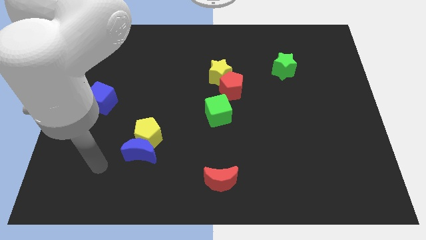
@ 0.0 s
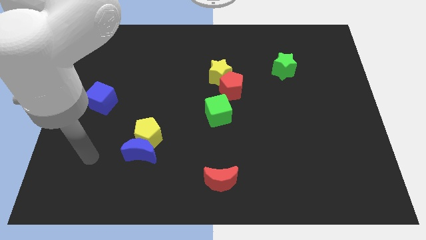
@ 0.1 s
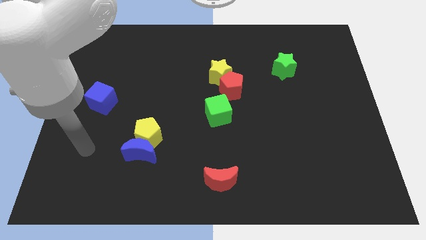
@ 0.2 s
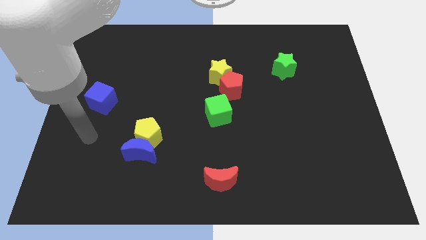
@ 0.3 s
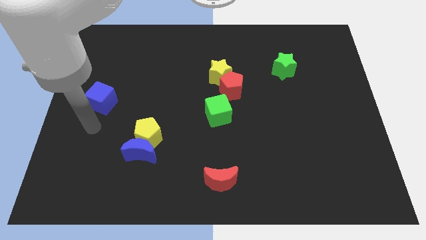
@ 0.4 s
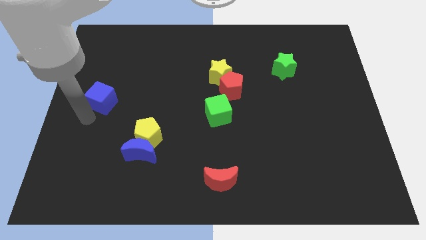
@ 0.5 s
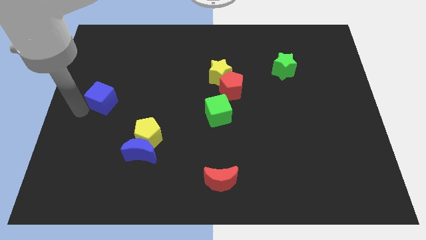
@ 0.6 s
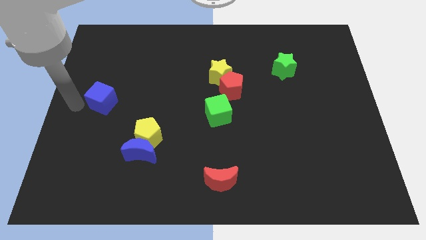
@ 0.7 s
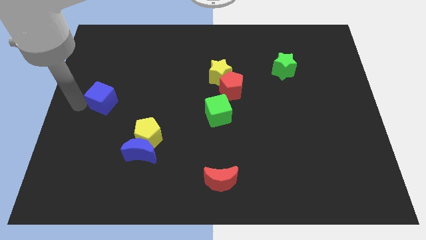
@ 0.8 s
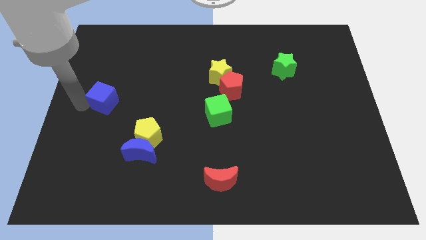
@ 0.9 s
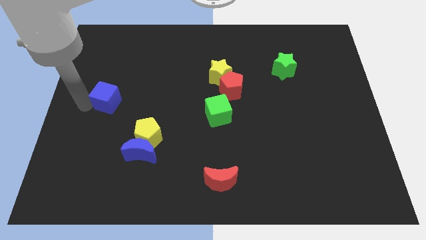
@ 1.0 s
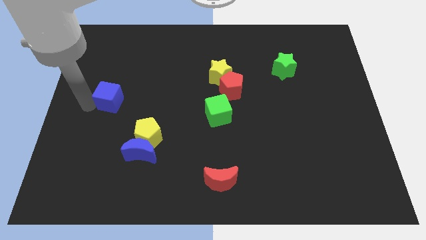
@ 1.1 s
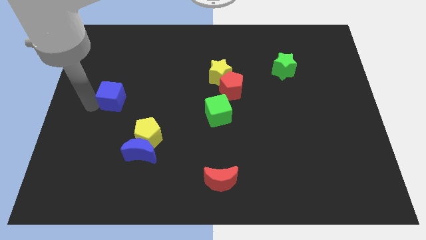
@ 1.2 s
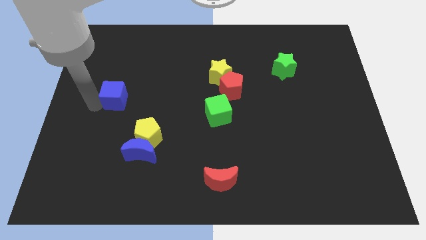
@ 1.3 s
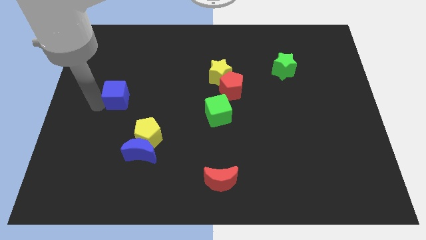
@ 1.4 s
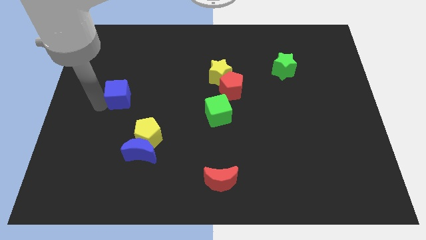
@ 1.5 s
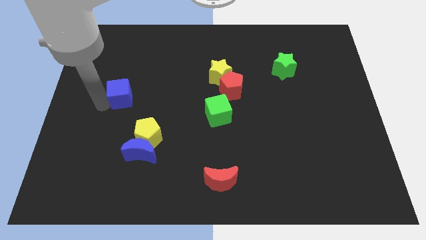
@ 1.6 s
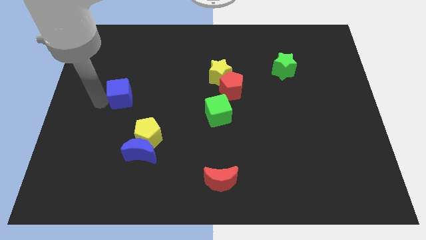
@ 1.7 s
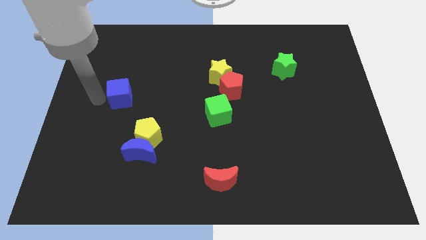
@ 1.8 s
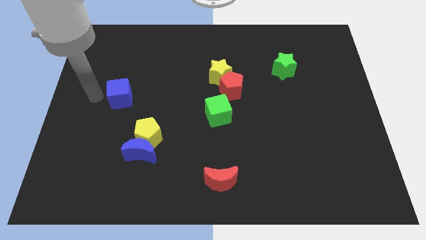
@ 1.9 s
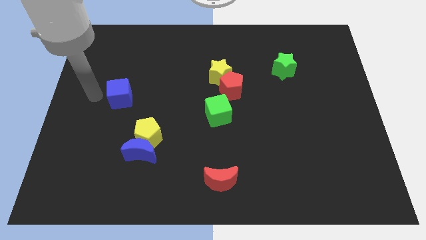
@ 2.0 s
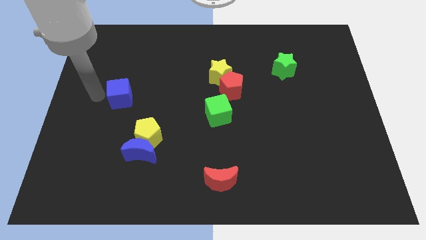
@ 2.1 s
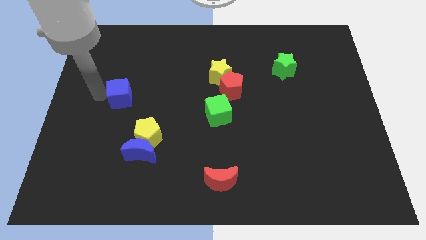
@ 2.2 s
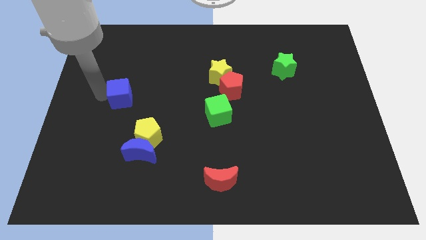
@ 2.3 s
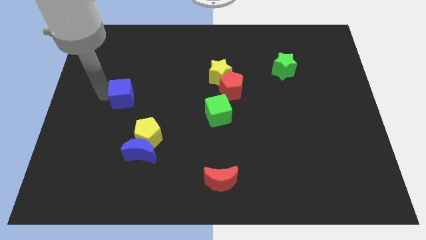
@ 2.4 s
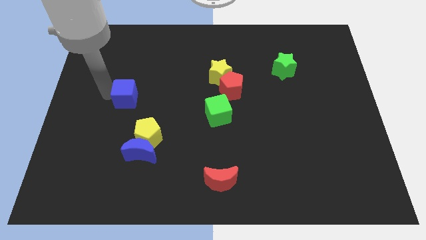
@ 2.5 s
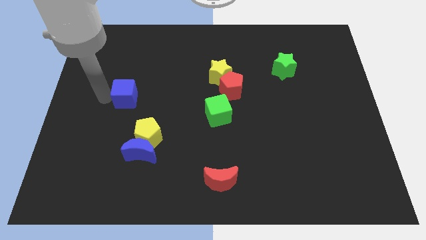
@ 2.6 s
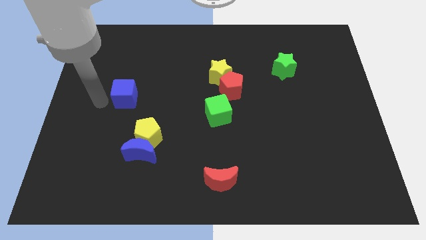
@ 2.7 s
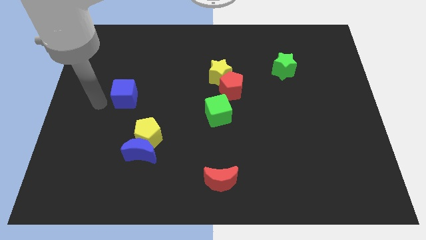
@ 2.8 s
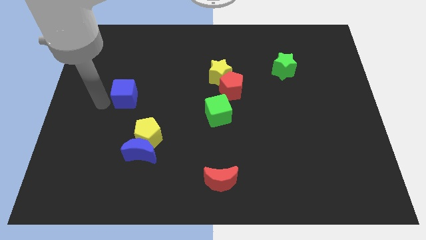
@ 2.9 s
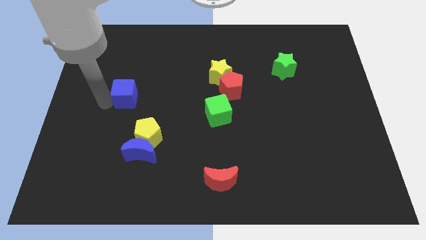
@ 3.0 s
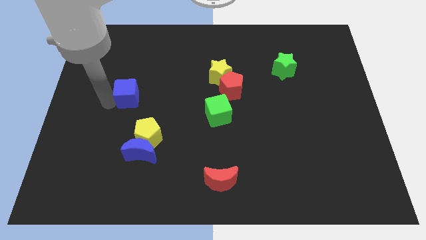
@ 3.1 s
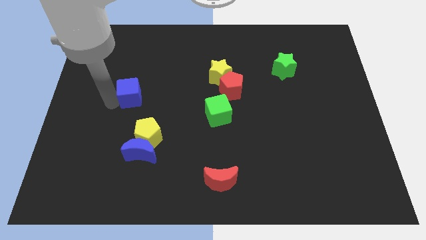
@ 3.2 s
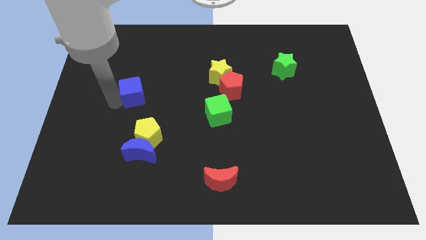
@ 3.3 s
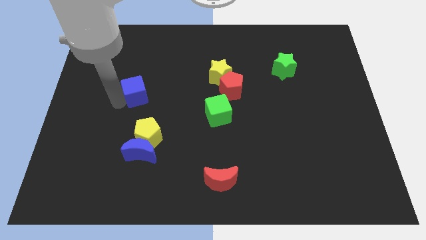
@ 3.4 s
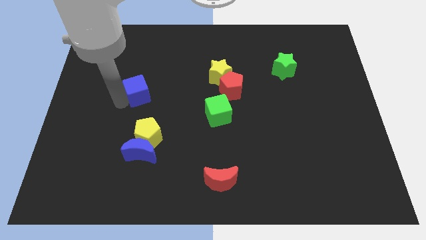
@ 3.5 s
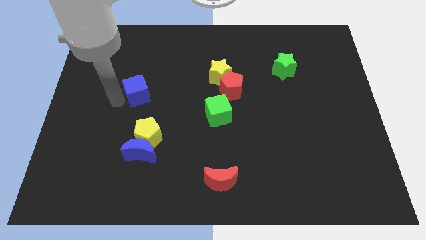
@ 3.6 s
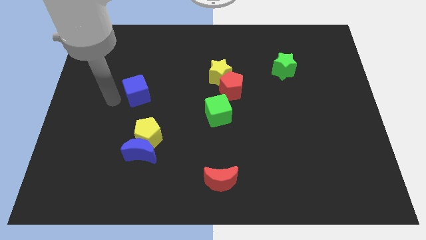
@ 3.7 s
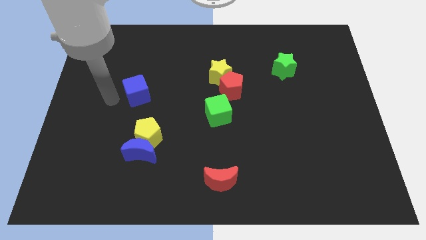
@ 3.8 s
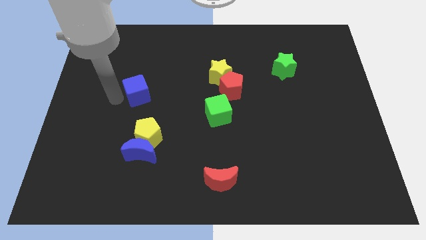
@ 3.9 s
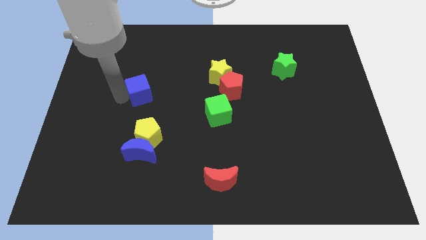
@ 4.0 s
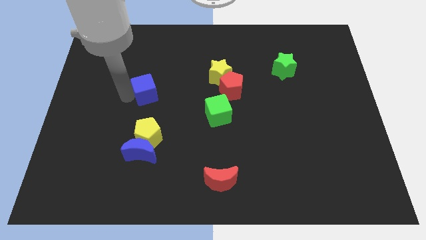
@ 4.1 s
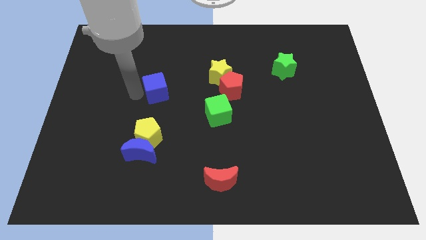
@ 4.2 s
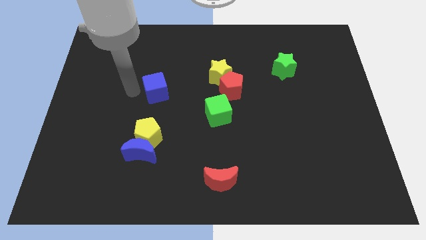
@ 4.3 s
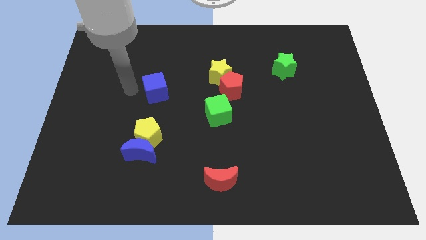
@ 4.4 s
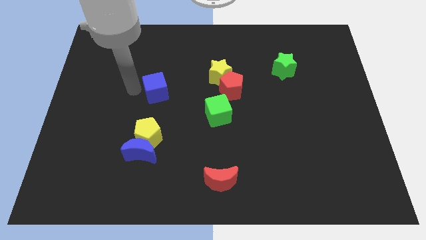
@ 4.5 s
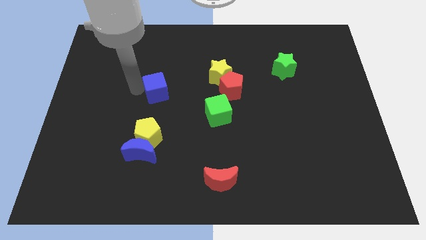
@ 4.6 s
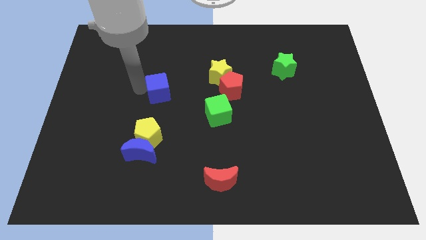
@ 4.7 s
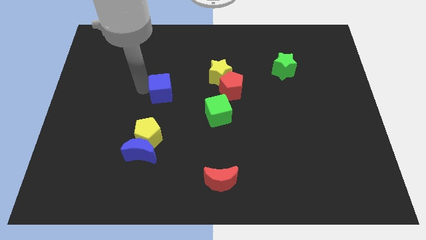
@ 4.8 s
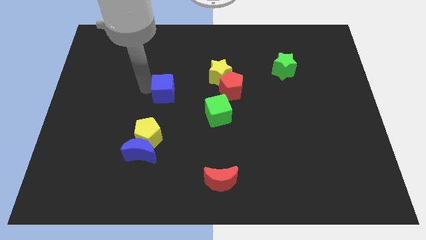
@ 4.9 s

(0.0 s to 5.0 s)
move the blue cube to the middle

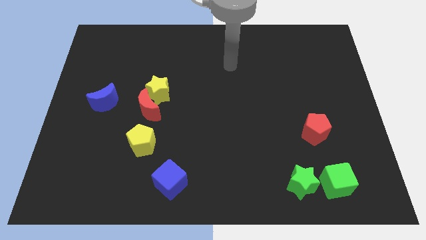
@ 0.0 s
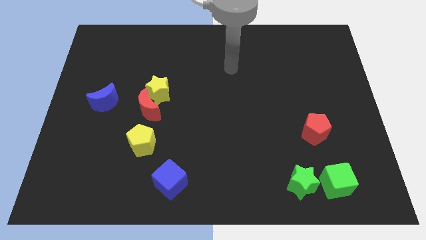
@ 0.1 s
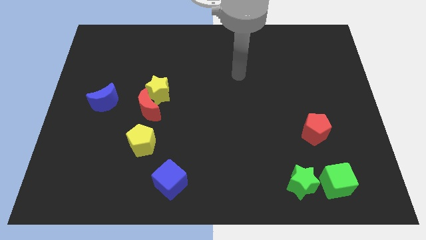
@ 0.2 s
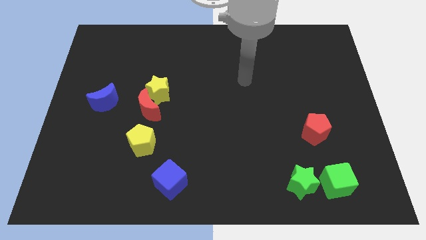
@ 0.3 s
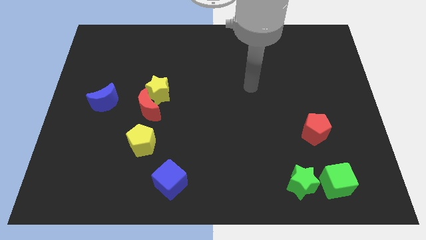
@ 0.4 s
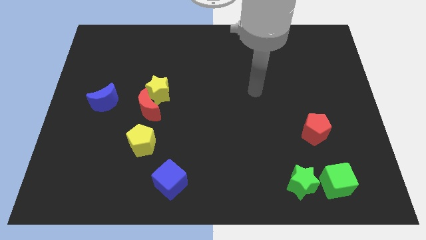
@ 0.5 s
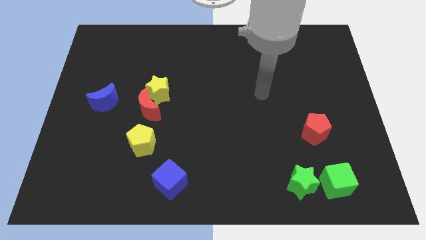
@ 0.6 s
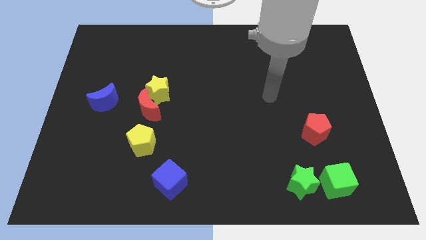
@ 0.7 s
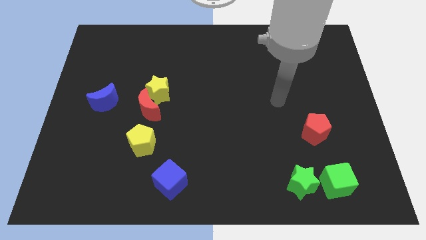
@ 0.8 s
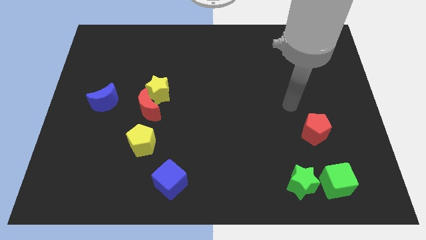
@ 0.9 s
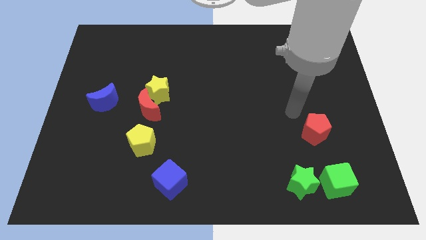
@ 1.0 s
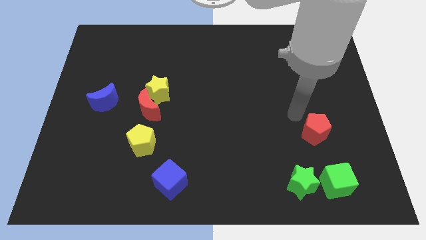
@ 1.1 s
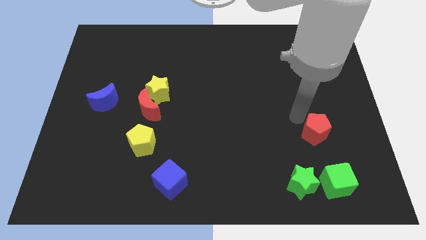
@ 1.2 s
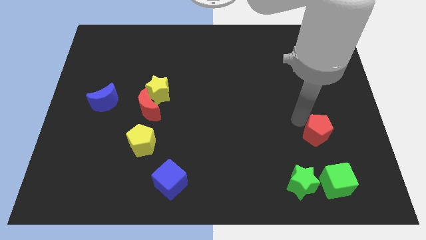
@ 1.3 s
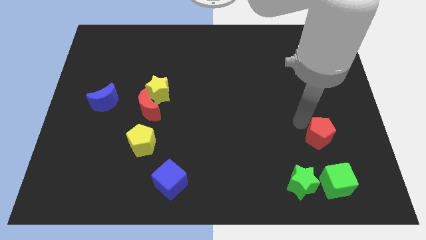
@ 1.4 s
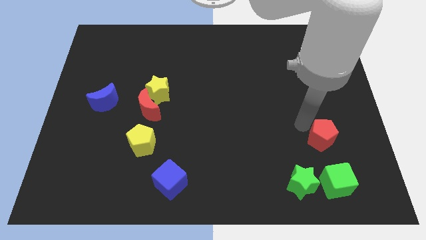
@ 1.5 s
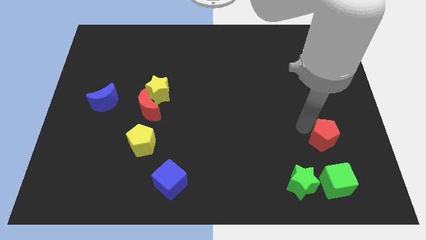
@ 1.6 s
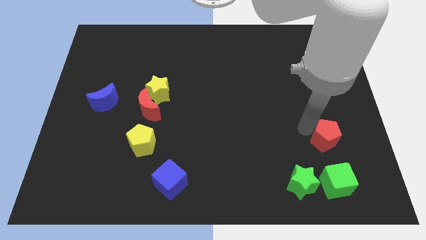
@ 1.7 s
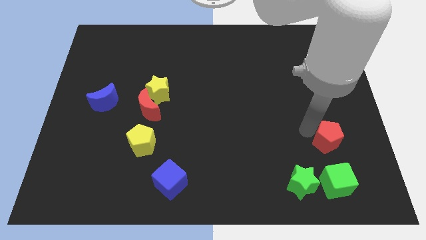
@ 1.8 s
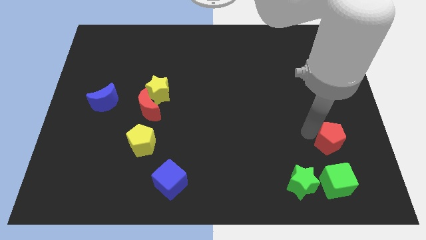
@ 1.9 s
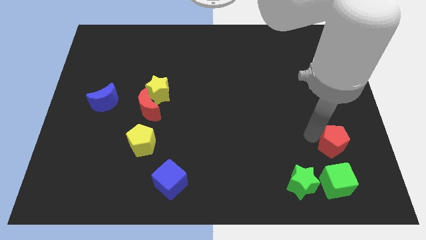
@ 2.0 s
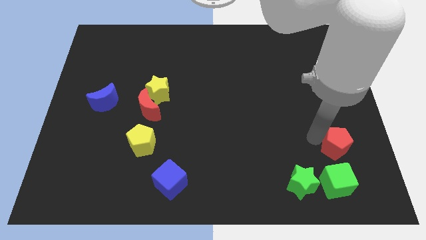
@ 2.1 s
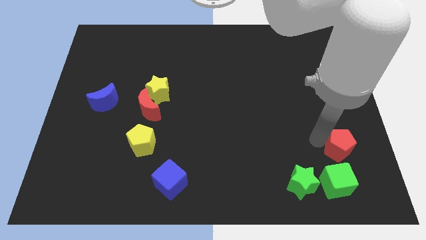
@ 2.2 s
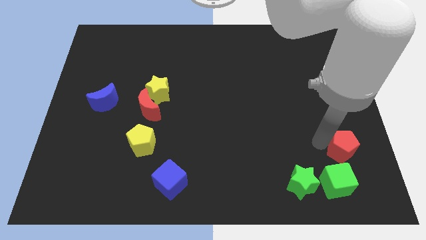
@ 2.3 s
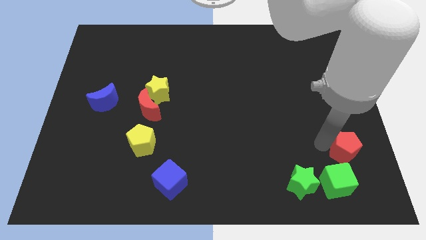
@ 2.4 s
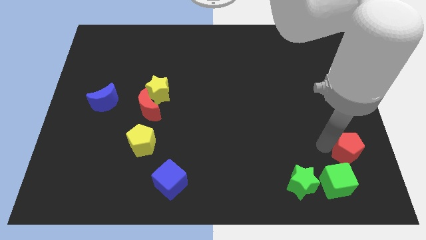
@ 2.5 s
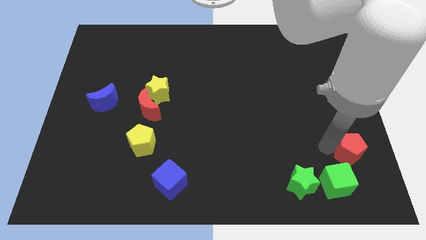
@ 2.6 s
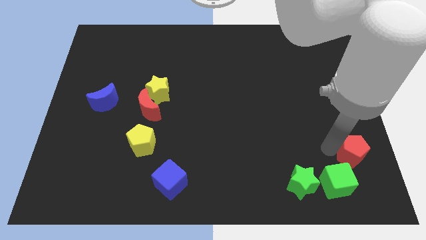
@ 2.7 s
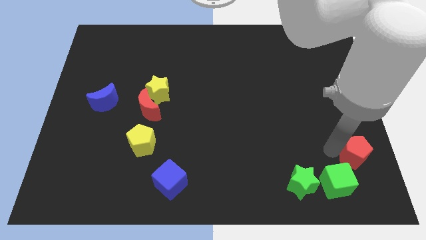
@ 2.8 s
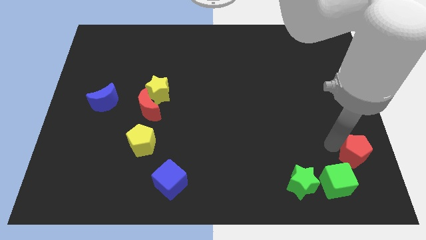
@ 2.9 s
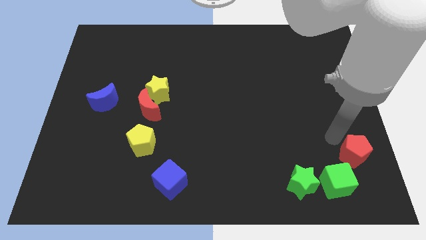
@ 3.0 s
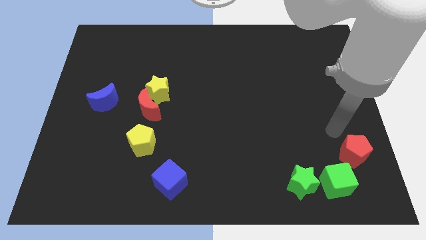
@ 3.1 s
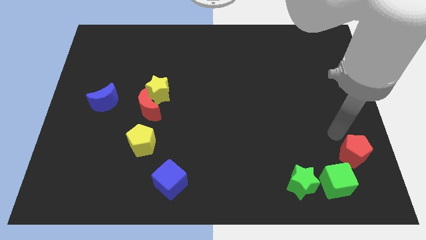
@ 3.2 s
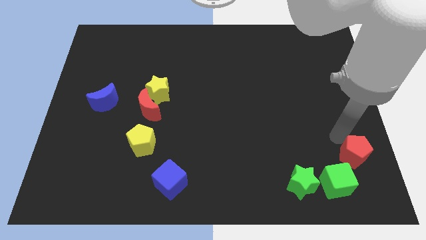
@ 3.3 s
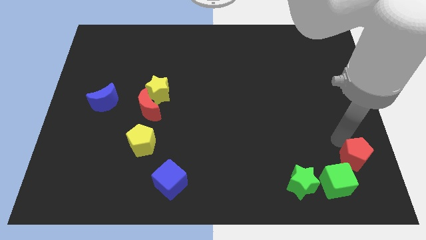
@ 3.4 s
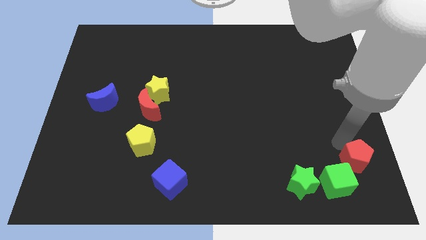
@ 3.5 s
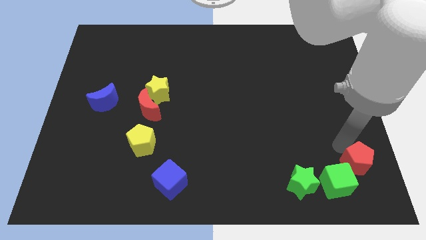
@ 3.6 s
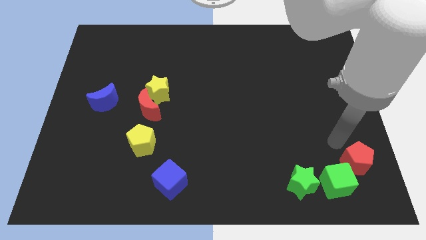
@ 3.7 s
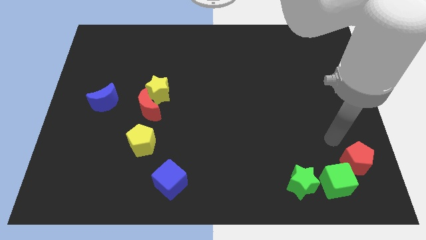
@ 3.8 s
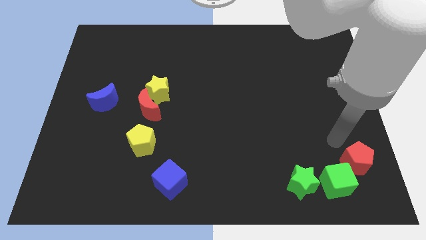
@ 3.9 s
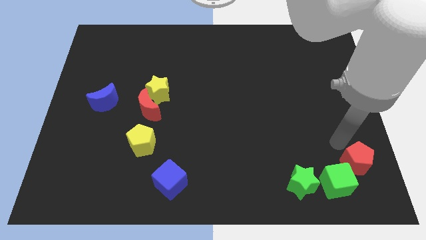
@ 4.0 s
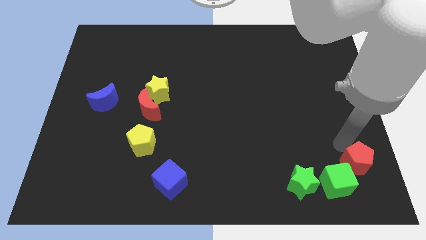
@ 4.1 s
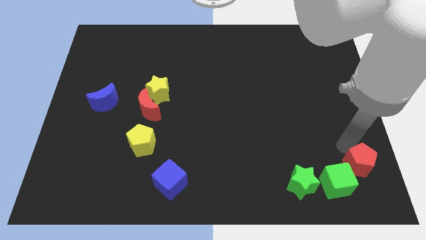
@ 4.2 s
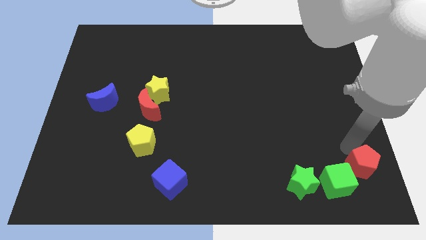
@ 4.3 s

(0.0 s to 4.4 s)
slide the red pentagon to the bottom right
